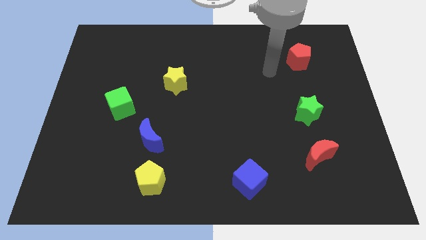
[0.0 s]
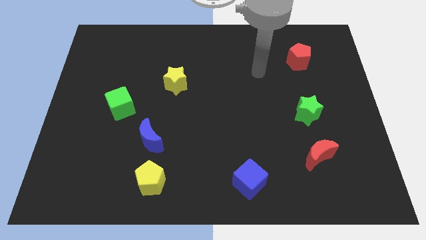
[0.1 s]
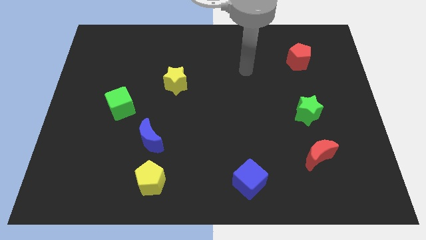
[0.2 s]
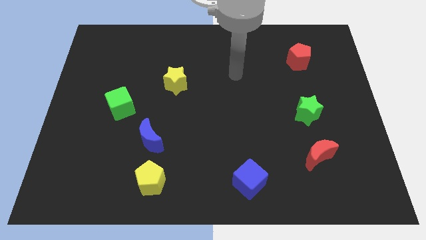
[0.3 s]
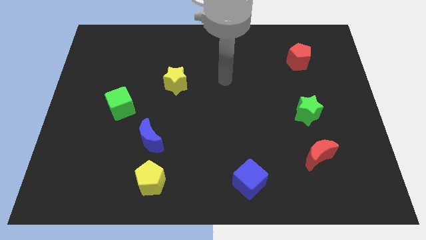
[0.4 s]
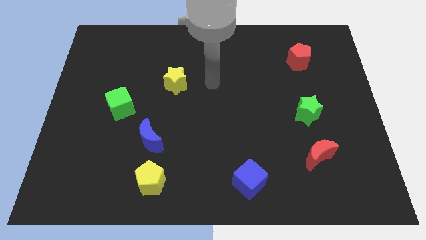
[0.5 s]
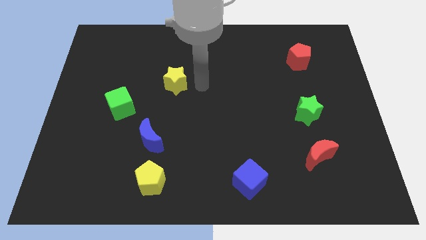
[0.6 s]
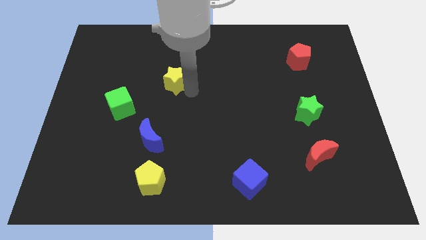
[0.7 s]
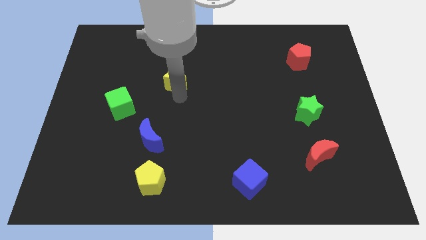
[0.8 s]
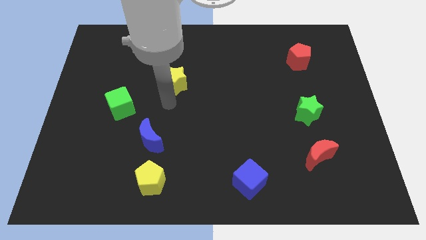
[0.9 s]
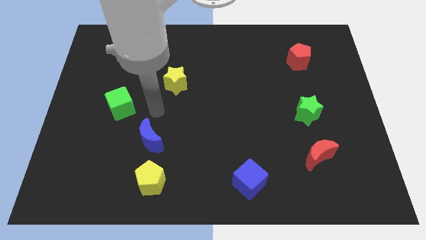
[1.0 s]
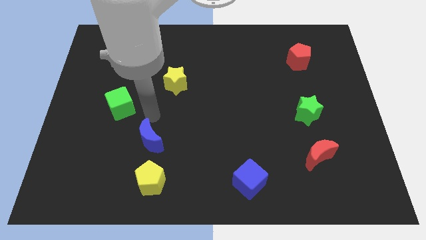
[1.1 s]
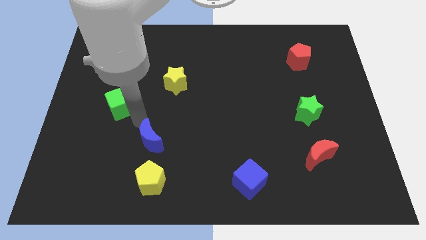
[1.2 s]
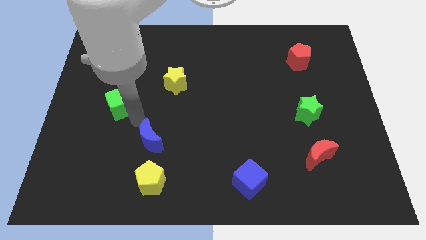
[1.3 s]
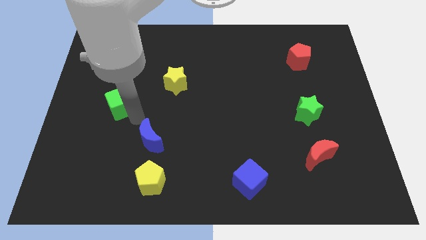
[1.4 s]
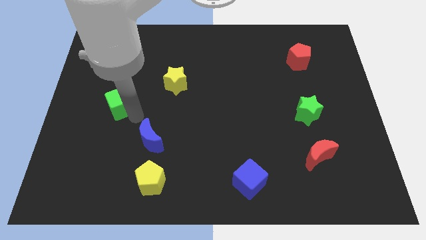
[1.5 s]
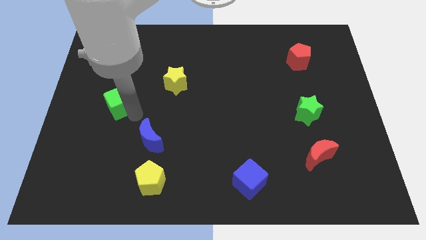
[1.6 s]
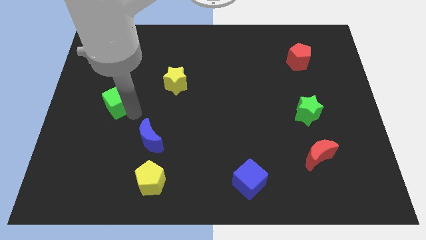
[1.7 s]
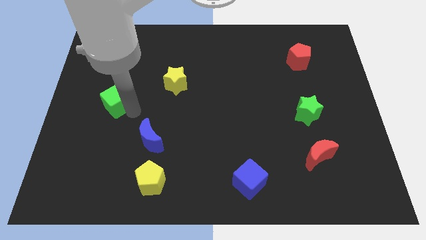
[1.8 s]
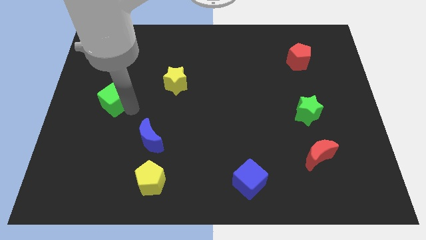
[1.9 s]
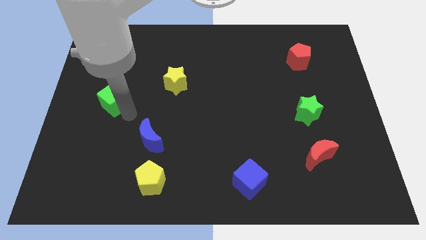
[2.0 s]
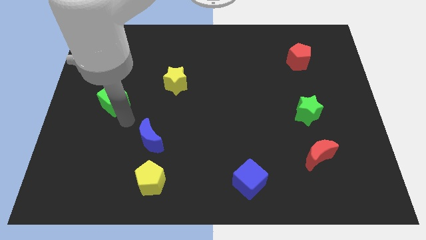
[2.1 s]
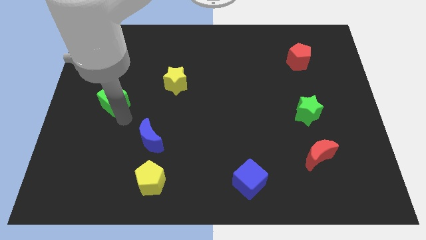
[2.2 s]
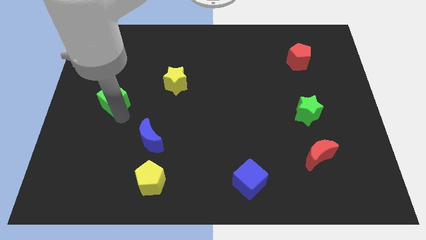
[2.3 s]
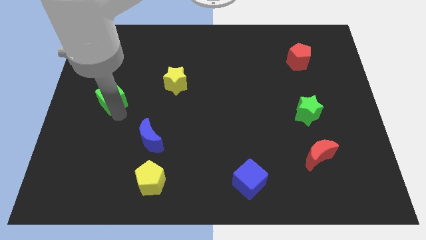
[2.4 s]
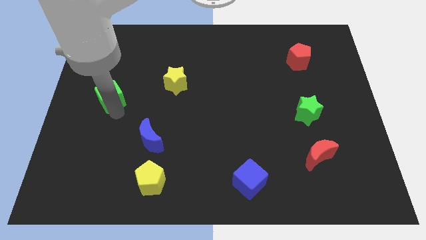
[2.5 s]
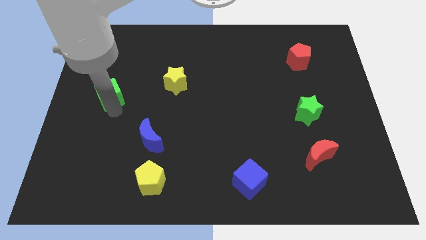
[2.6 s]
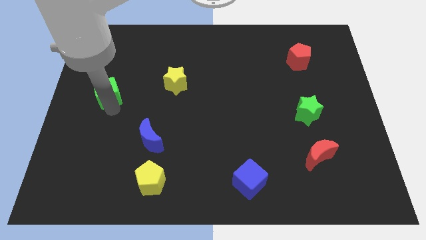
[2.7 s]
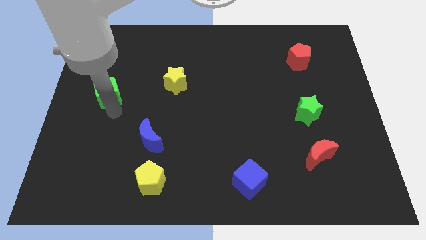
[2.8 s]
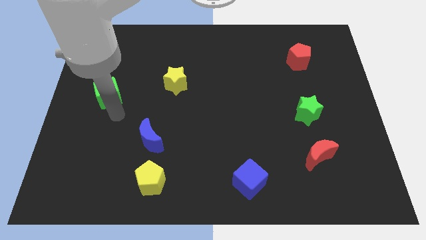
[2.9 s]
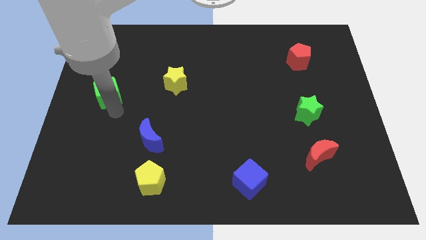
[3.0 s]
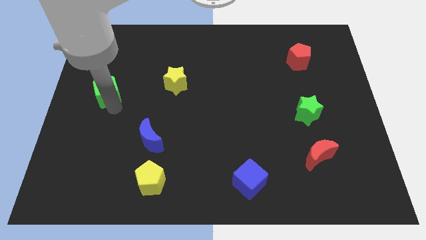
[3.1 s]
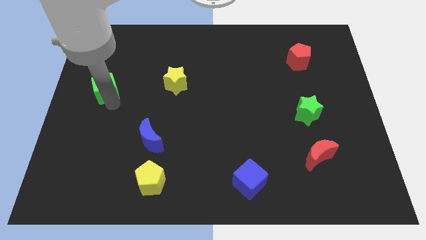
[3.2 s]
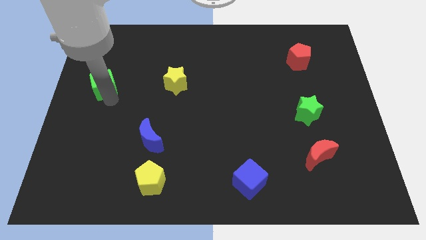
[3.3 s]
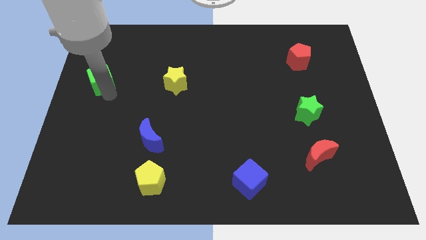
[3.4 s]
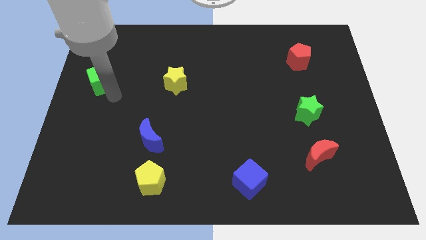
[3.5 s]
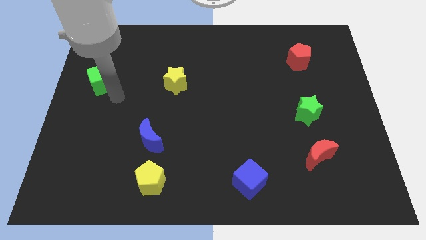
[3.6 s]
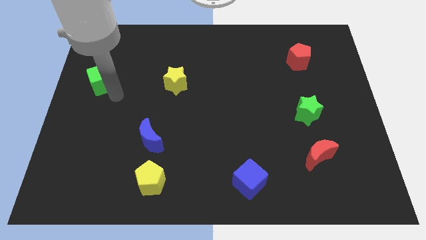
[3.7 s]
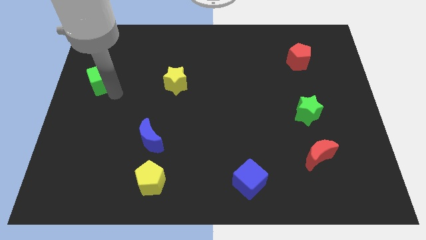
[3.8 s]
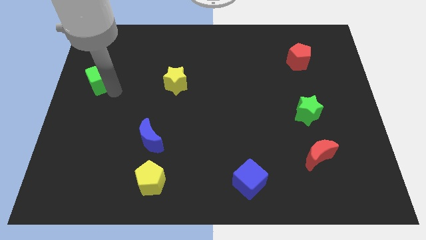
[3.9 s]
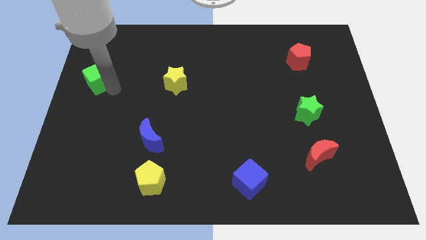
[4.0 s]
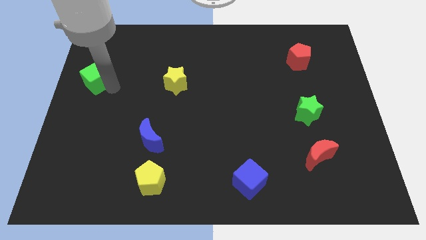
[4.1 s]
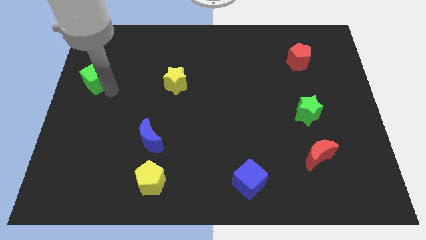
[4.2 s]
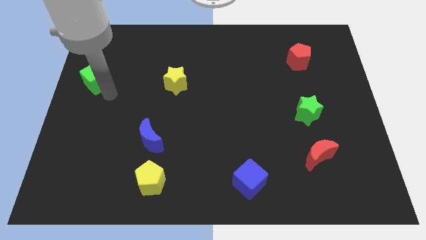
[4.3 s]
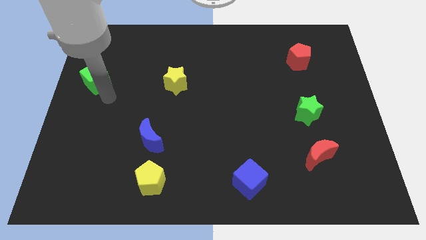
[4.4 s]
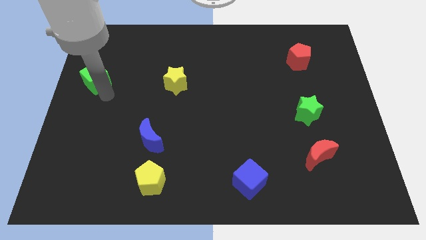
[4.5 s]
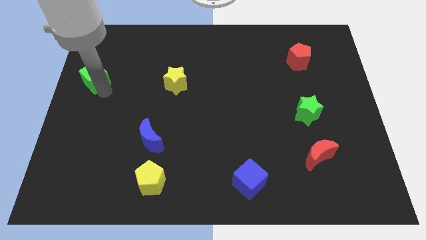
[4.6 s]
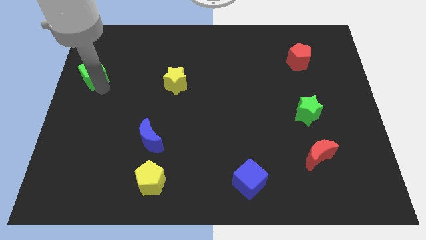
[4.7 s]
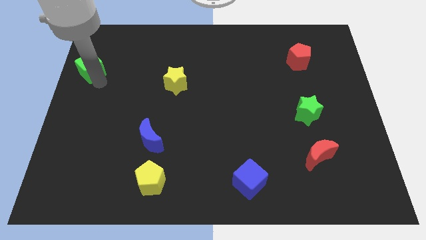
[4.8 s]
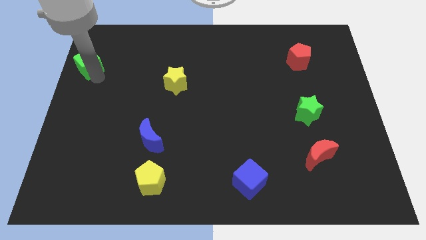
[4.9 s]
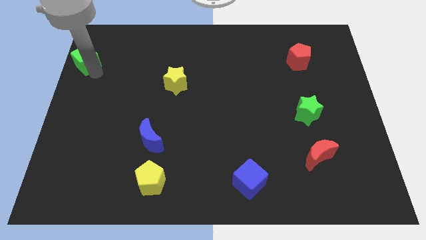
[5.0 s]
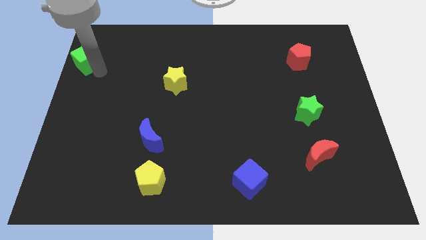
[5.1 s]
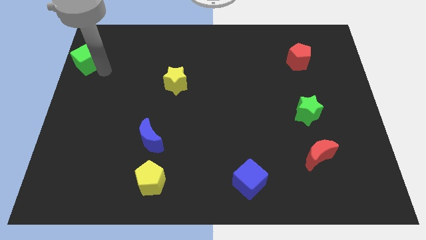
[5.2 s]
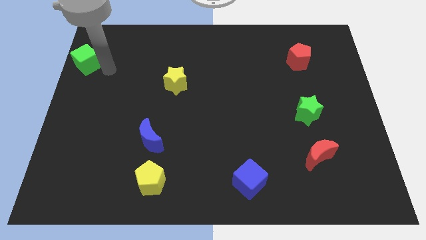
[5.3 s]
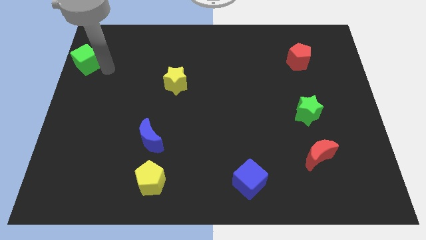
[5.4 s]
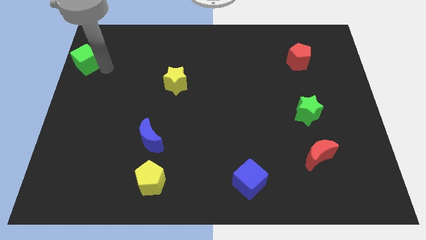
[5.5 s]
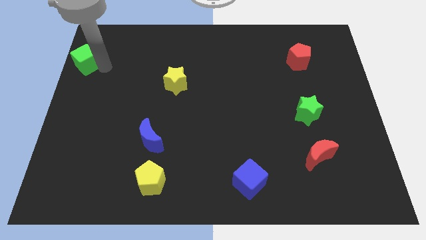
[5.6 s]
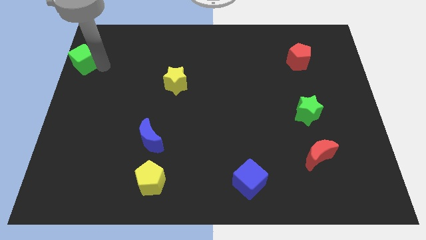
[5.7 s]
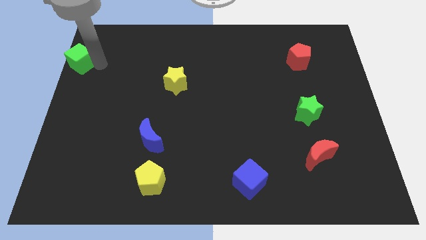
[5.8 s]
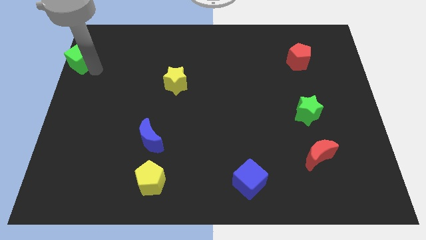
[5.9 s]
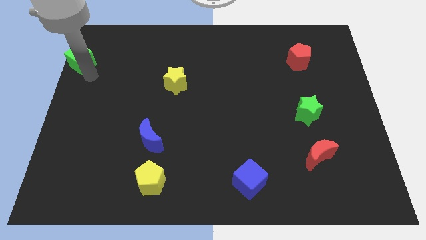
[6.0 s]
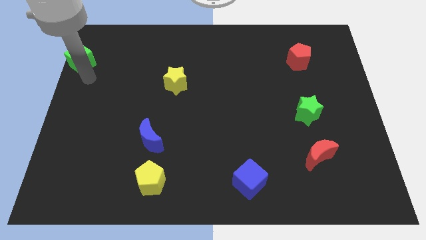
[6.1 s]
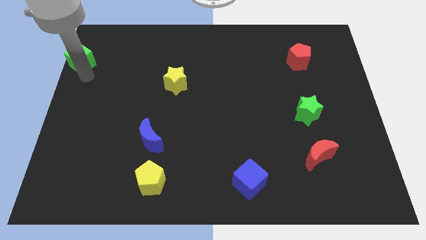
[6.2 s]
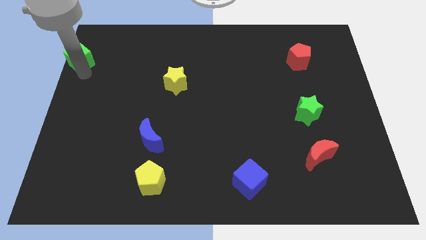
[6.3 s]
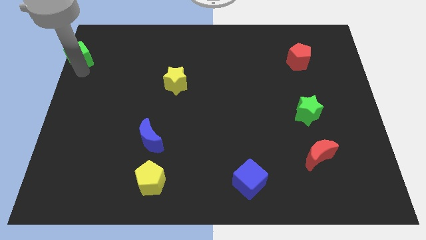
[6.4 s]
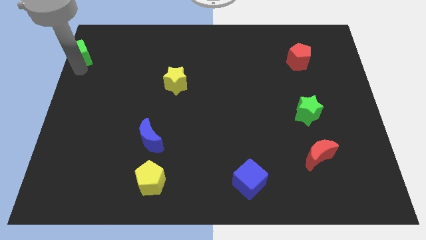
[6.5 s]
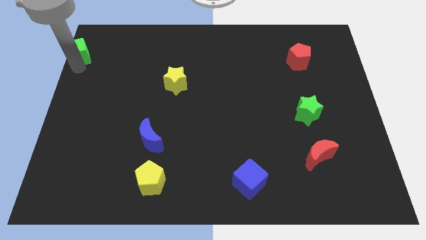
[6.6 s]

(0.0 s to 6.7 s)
move the green cube to the top left of the board
